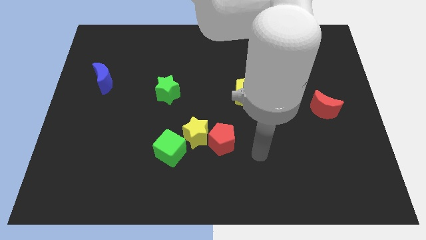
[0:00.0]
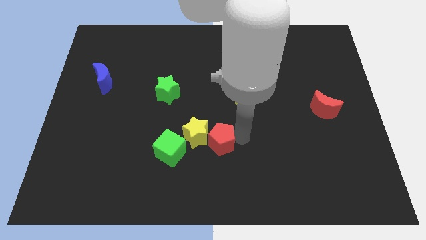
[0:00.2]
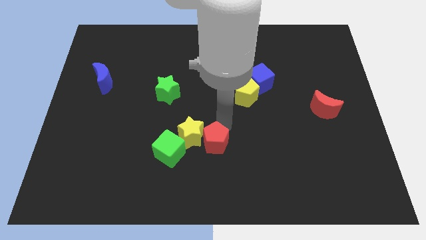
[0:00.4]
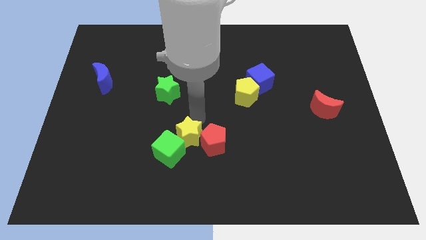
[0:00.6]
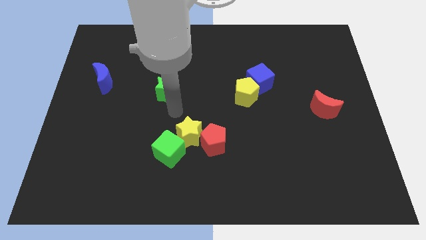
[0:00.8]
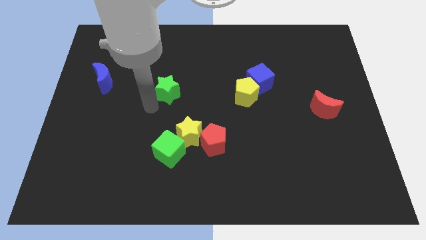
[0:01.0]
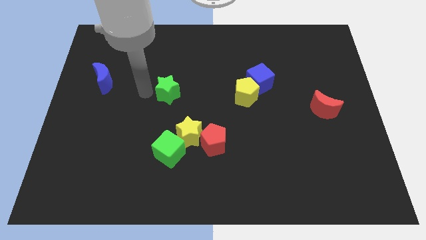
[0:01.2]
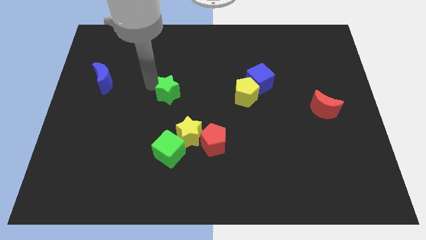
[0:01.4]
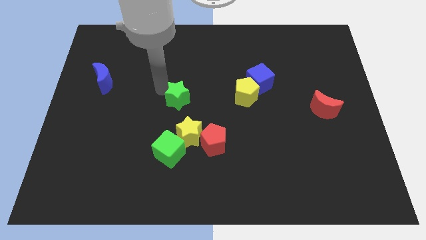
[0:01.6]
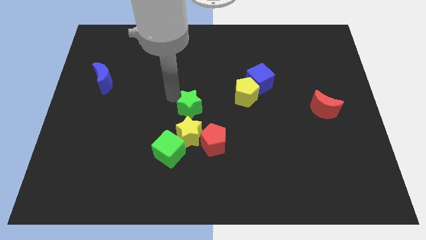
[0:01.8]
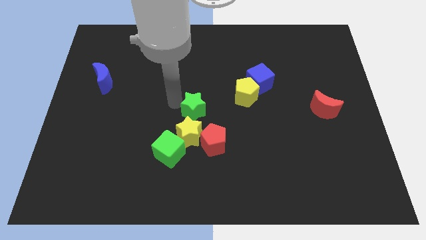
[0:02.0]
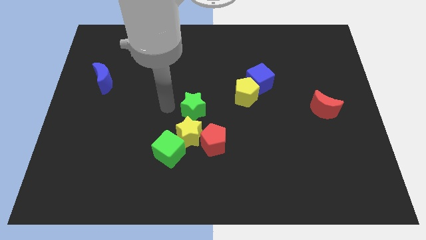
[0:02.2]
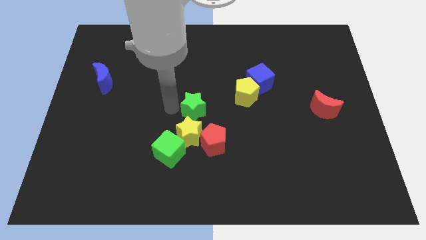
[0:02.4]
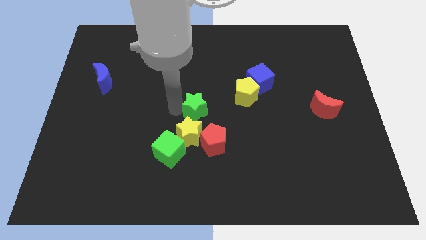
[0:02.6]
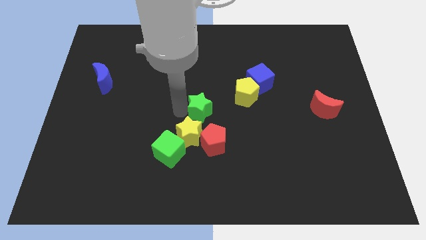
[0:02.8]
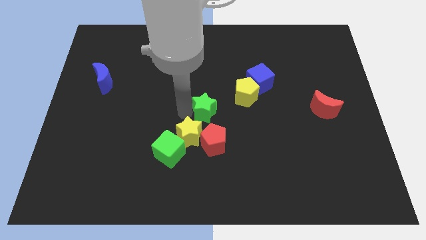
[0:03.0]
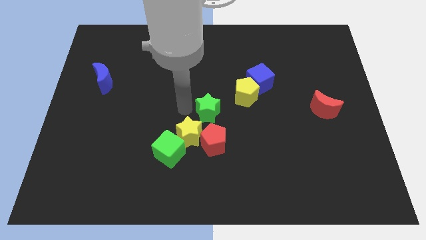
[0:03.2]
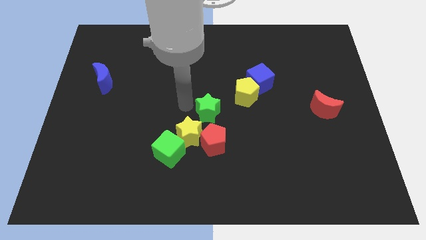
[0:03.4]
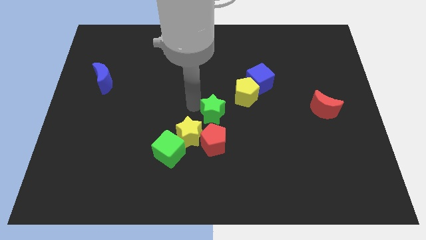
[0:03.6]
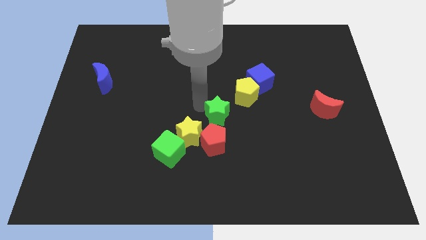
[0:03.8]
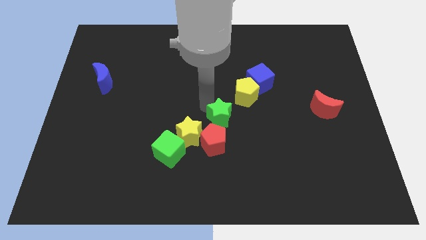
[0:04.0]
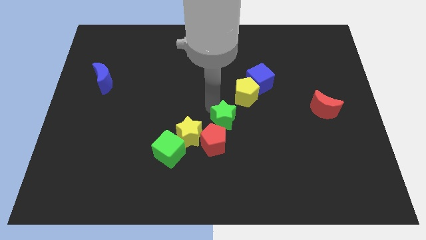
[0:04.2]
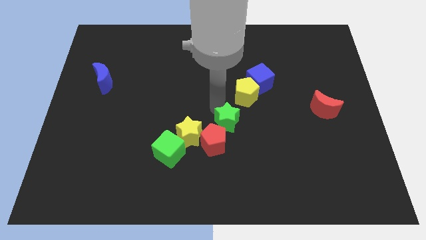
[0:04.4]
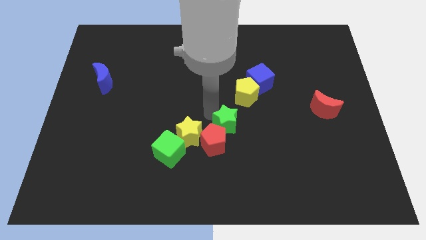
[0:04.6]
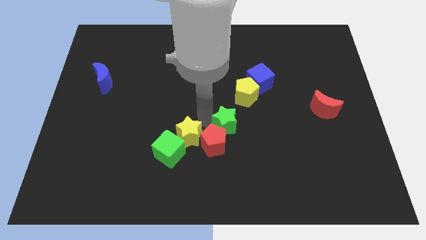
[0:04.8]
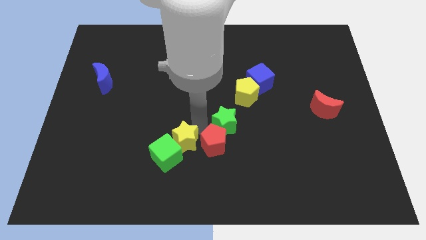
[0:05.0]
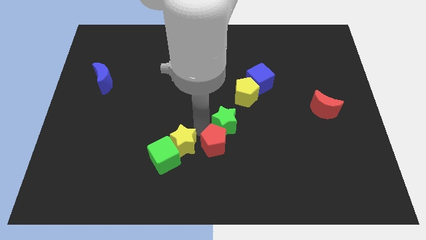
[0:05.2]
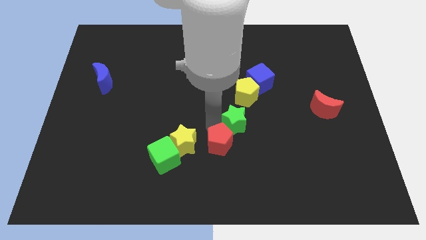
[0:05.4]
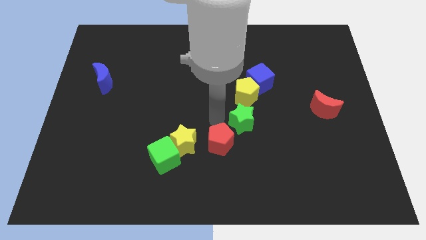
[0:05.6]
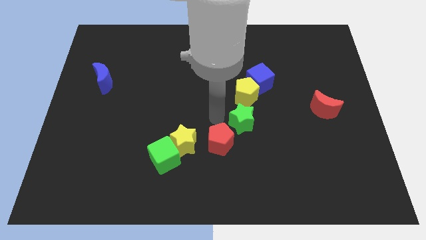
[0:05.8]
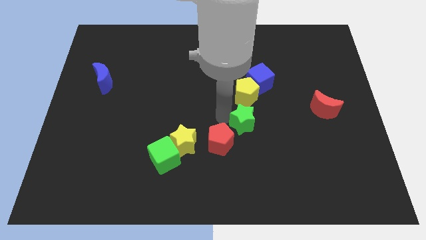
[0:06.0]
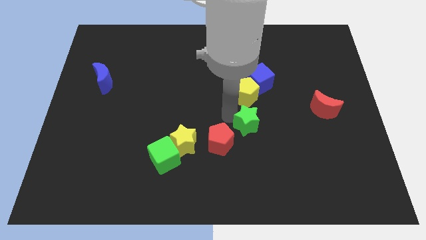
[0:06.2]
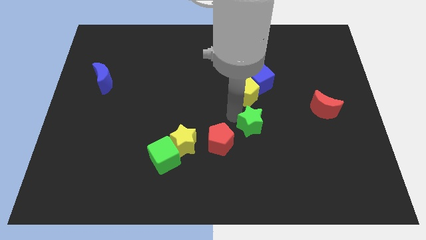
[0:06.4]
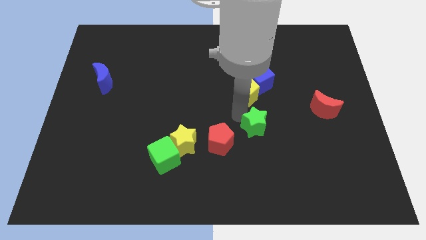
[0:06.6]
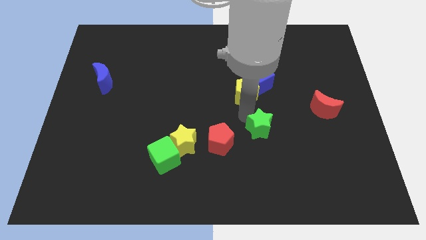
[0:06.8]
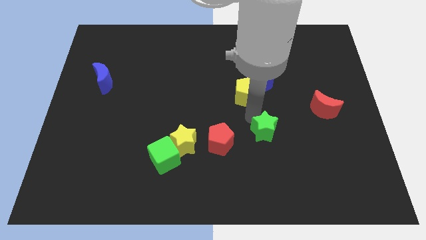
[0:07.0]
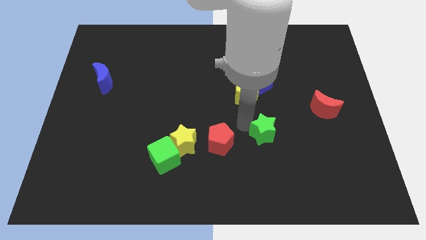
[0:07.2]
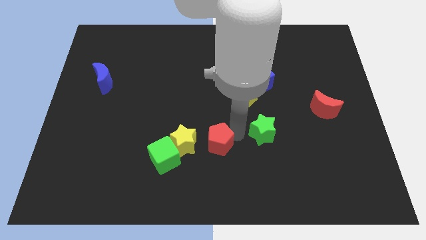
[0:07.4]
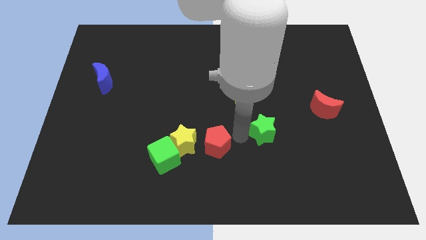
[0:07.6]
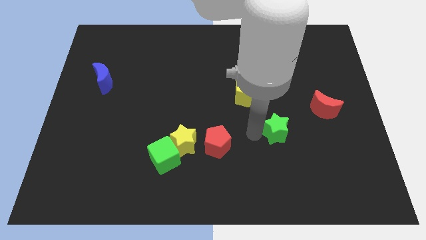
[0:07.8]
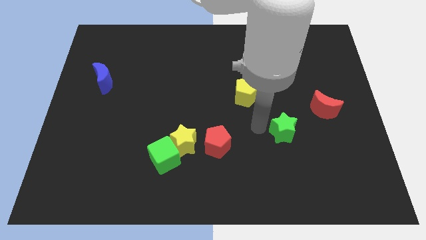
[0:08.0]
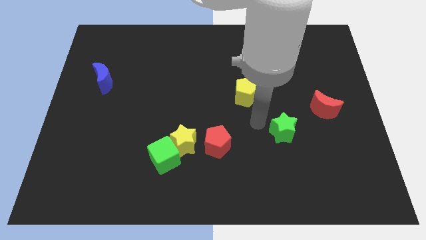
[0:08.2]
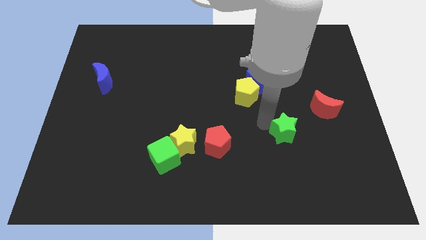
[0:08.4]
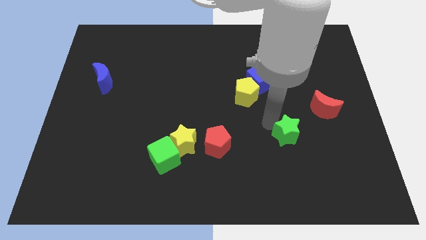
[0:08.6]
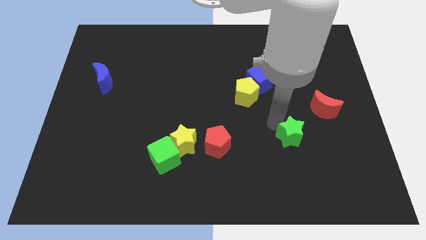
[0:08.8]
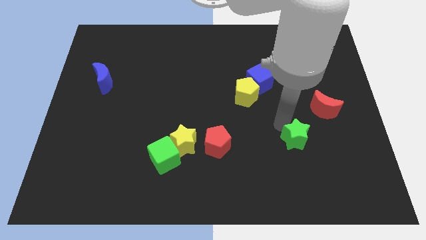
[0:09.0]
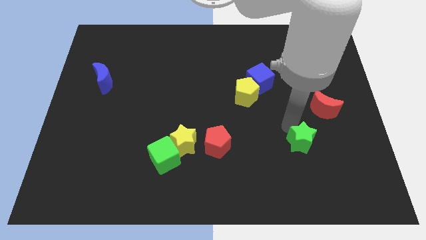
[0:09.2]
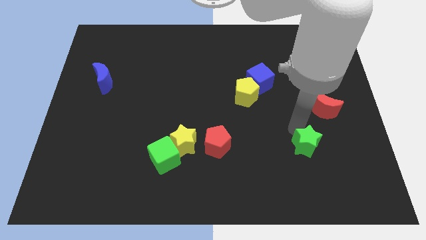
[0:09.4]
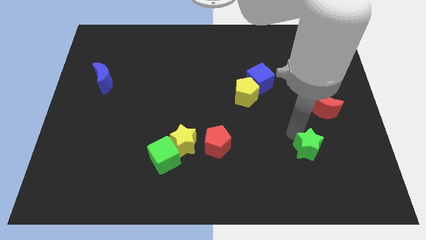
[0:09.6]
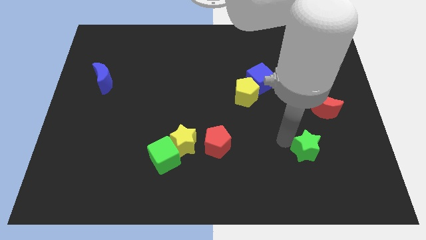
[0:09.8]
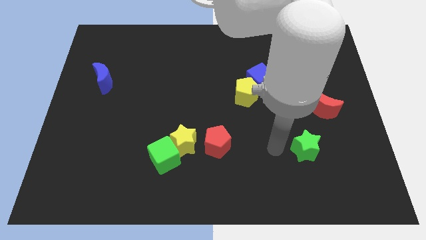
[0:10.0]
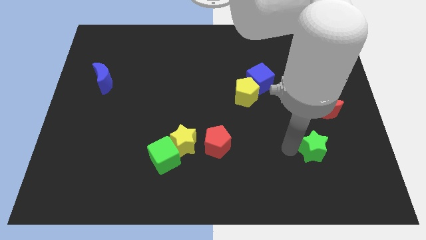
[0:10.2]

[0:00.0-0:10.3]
move the green star to the bottom of the red moon

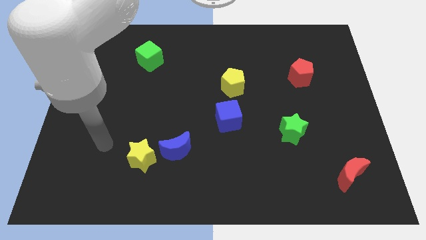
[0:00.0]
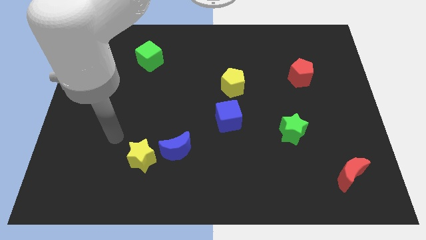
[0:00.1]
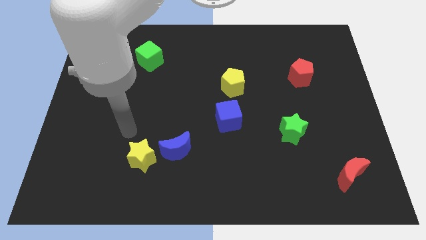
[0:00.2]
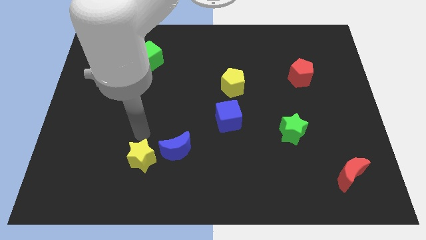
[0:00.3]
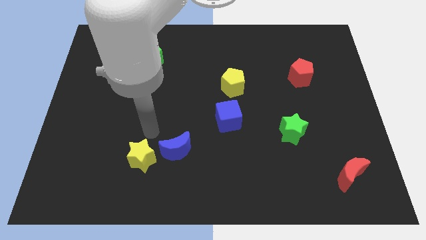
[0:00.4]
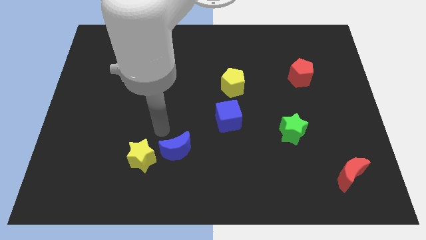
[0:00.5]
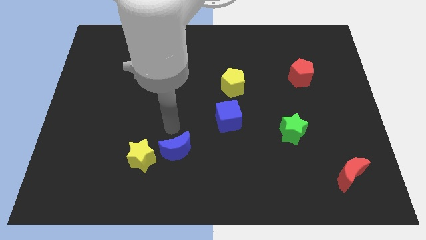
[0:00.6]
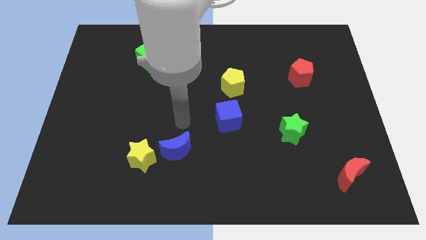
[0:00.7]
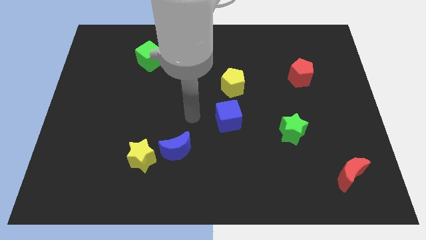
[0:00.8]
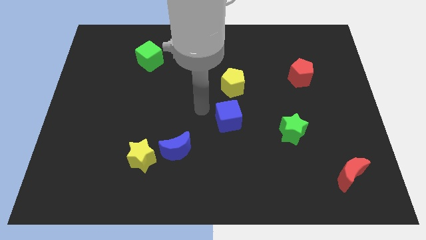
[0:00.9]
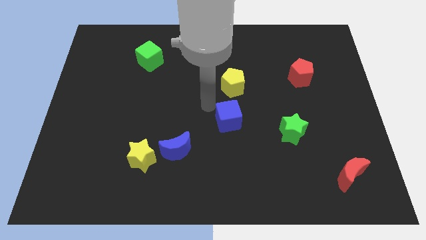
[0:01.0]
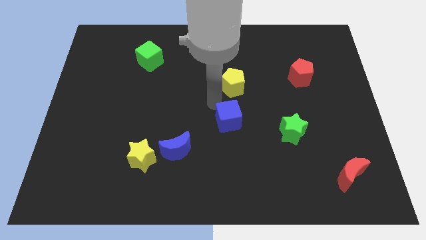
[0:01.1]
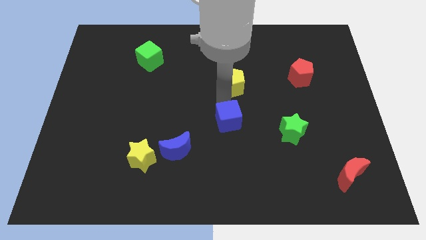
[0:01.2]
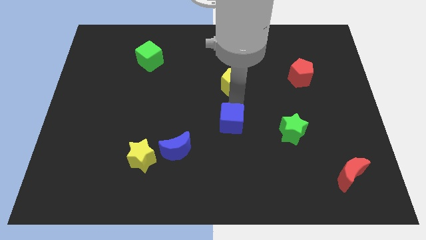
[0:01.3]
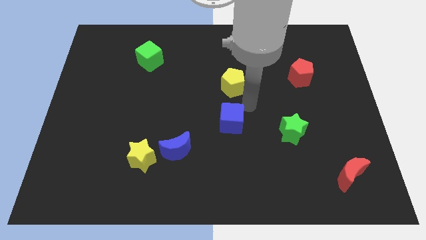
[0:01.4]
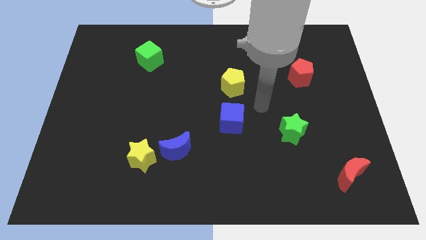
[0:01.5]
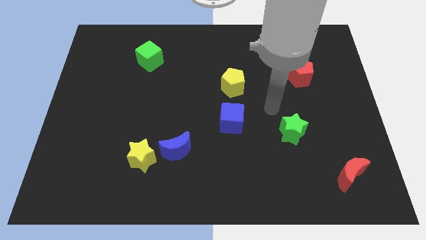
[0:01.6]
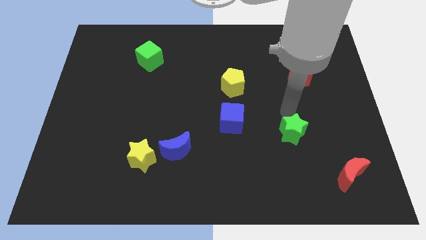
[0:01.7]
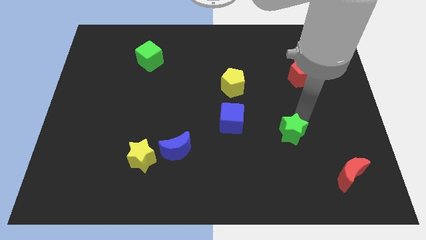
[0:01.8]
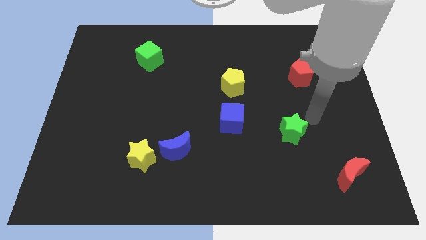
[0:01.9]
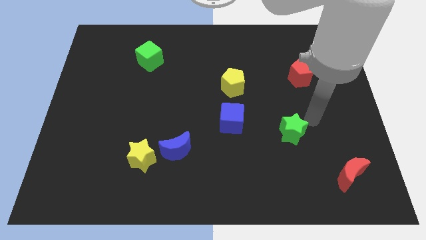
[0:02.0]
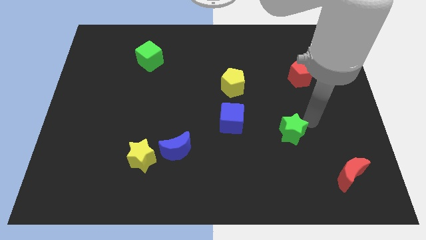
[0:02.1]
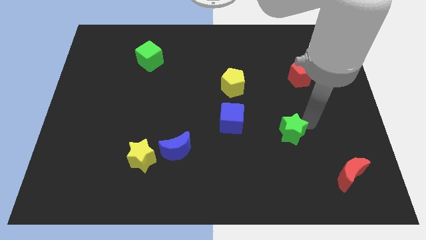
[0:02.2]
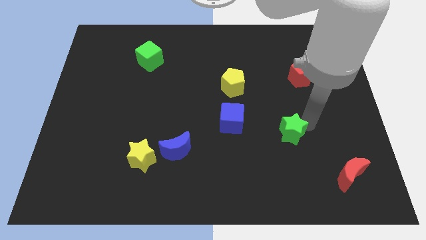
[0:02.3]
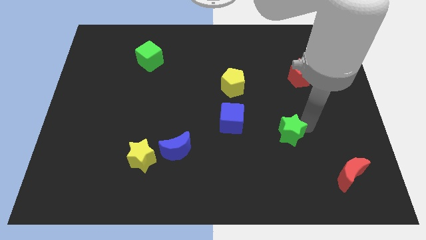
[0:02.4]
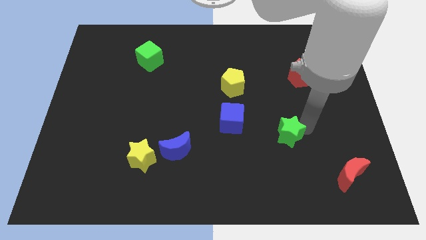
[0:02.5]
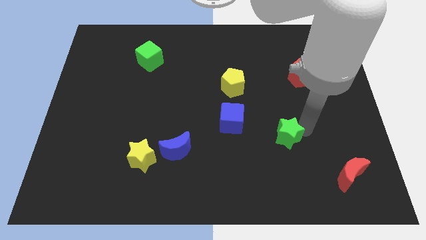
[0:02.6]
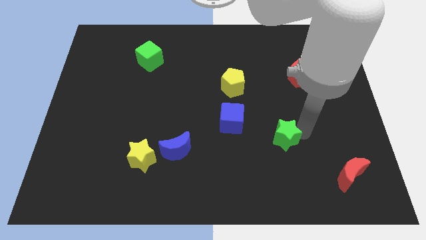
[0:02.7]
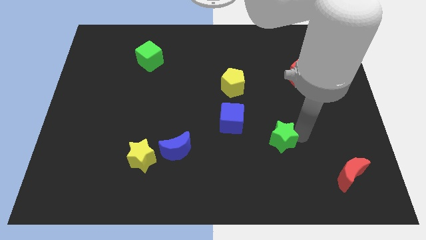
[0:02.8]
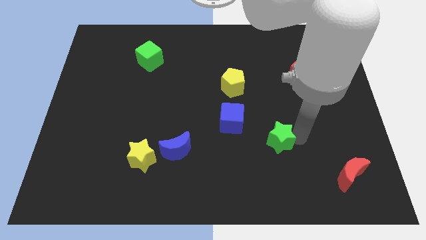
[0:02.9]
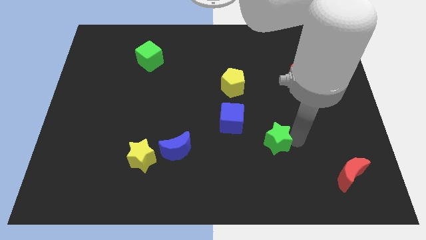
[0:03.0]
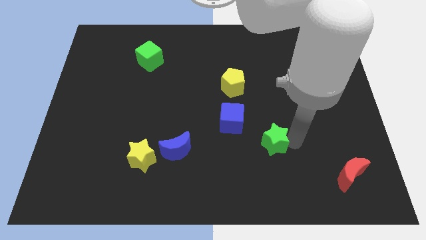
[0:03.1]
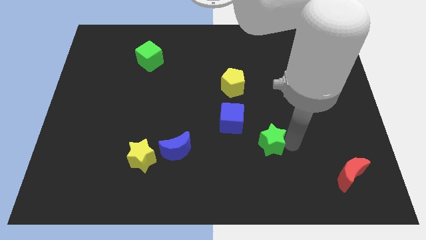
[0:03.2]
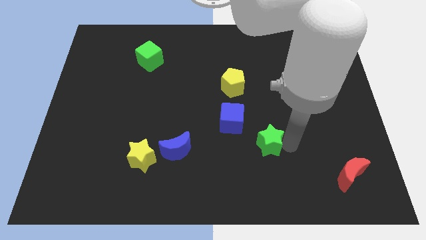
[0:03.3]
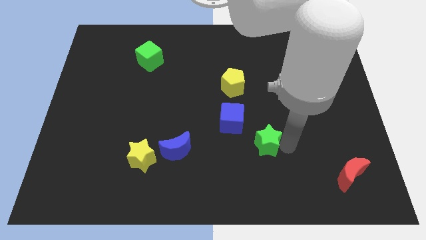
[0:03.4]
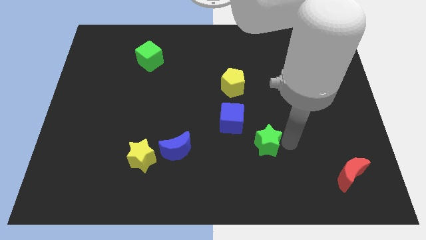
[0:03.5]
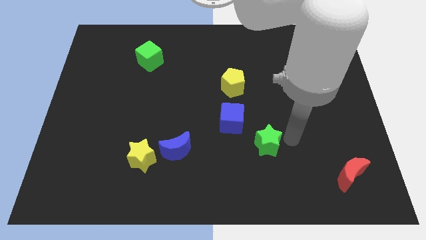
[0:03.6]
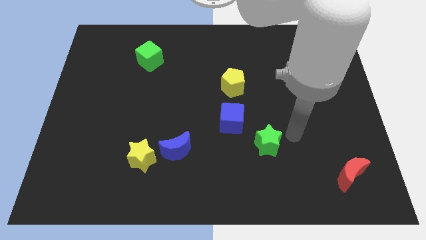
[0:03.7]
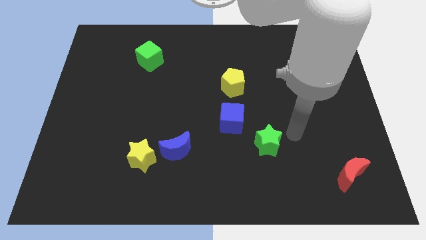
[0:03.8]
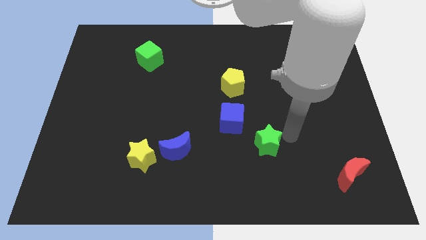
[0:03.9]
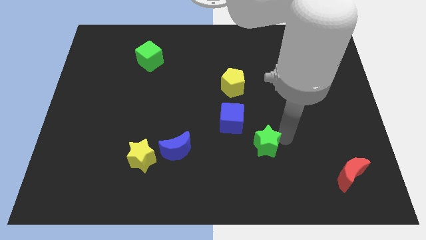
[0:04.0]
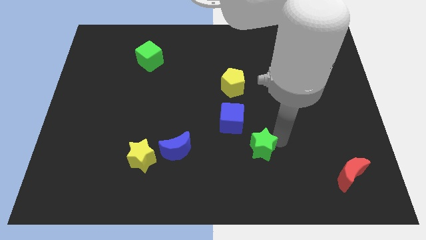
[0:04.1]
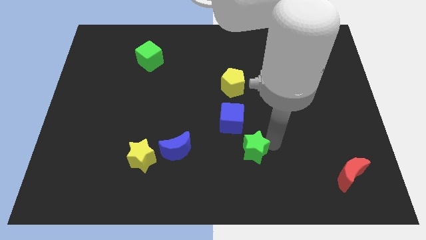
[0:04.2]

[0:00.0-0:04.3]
put the green star below the blue cube
